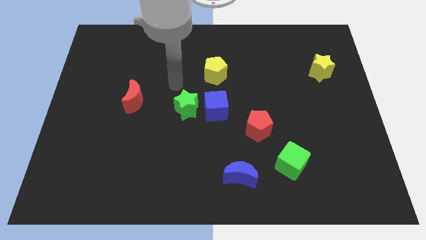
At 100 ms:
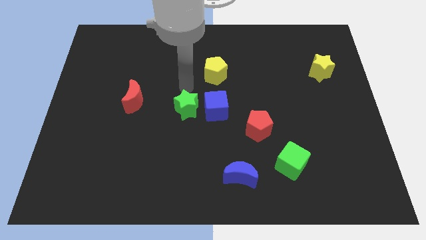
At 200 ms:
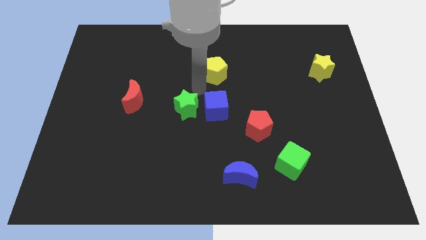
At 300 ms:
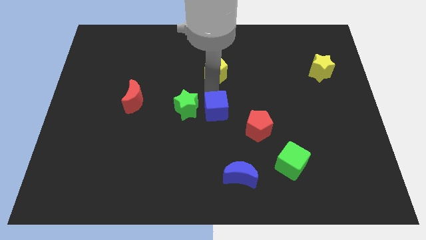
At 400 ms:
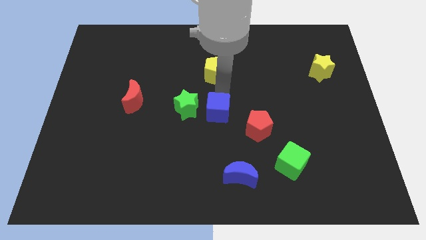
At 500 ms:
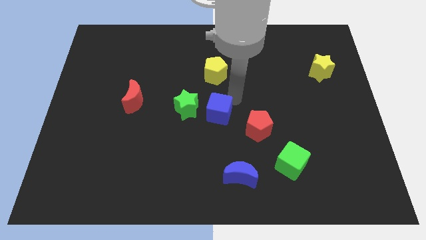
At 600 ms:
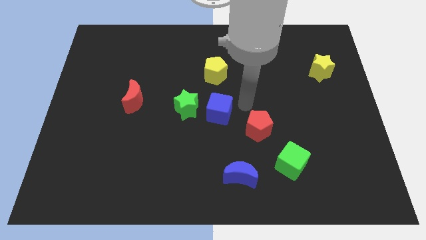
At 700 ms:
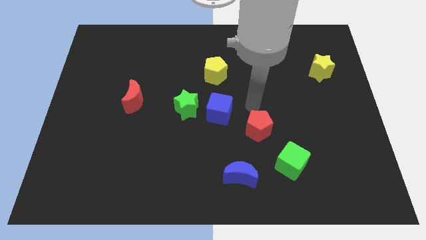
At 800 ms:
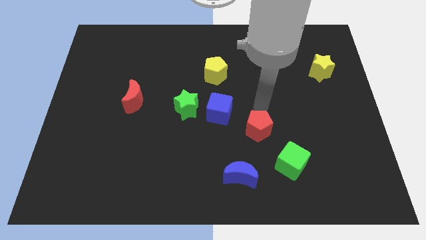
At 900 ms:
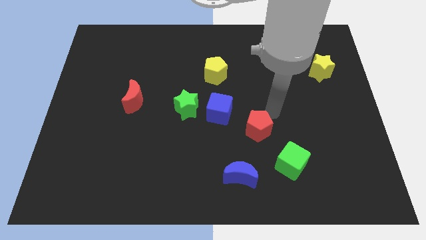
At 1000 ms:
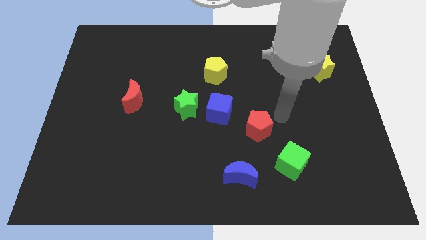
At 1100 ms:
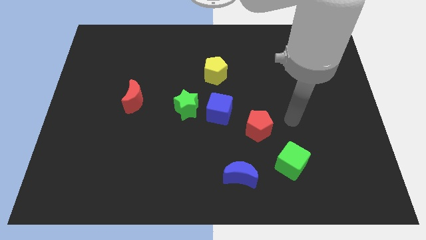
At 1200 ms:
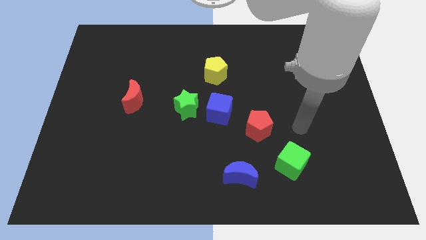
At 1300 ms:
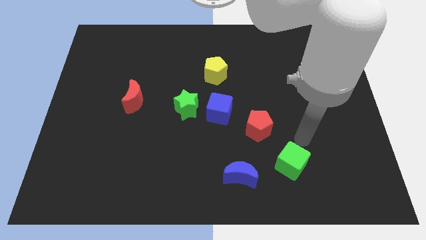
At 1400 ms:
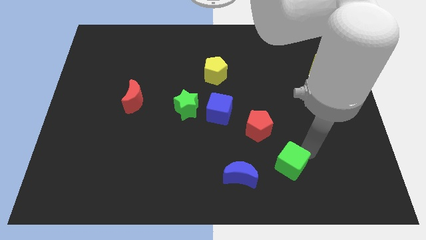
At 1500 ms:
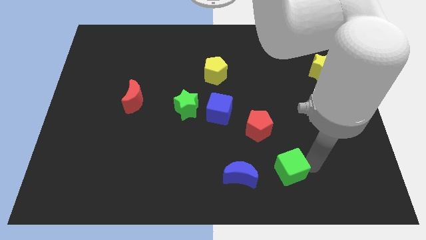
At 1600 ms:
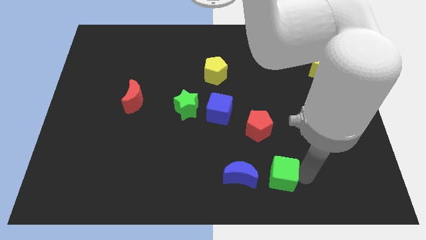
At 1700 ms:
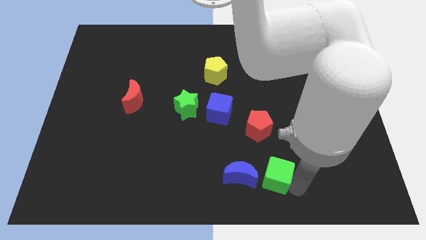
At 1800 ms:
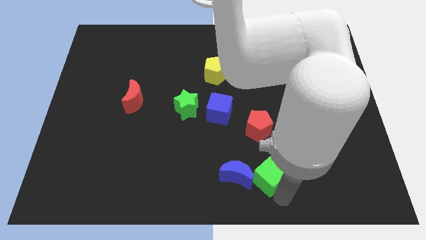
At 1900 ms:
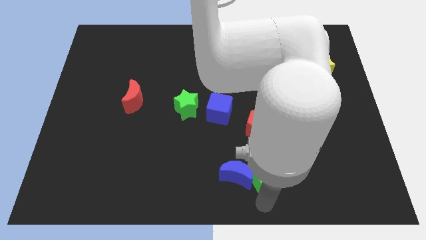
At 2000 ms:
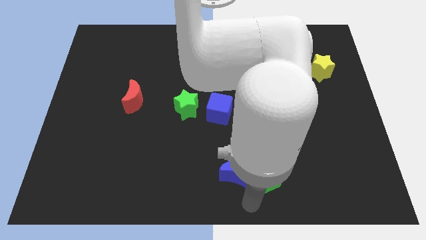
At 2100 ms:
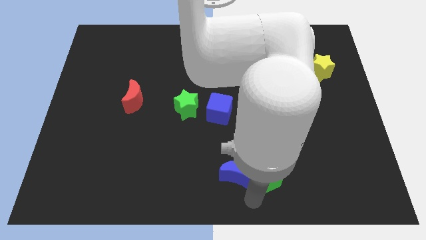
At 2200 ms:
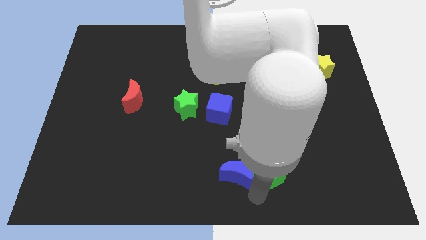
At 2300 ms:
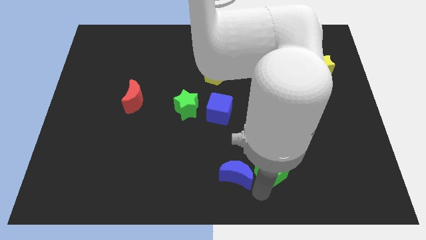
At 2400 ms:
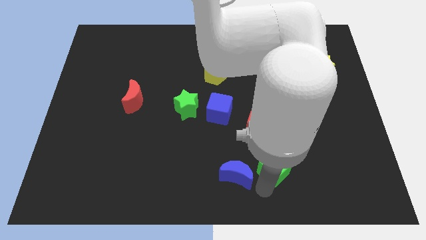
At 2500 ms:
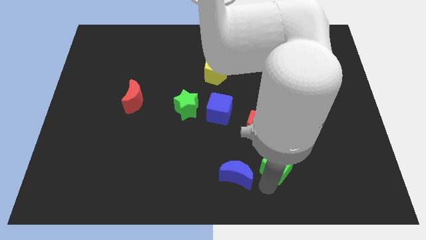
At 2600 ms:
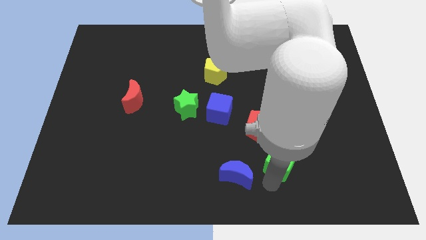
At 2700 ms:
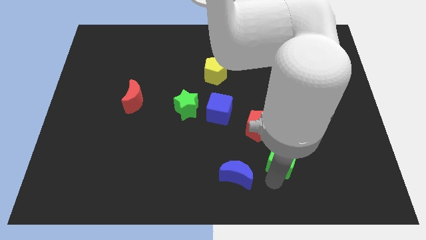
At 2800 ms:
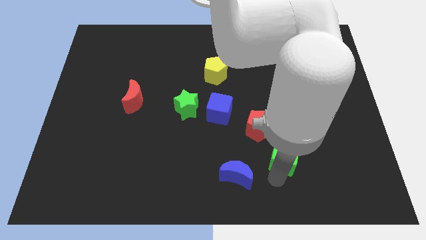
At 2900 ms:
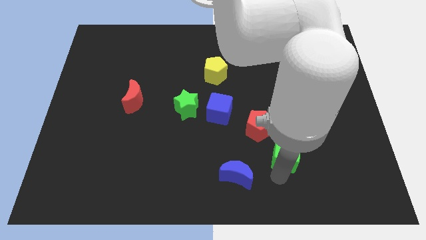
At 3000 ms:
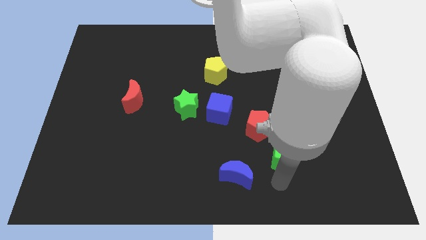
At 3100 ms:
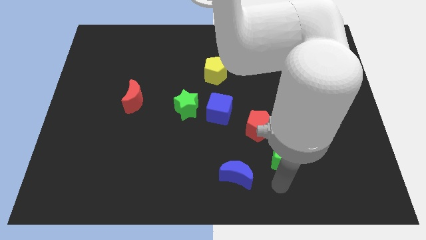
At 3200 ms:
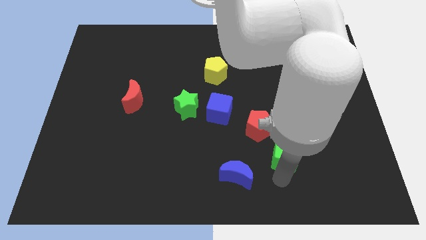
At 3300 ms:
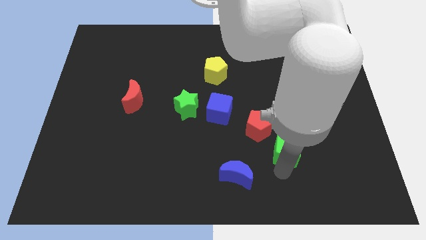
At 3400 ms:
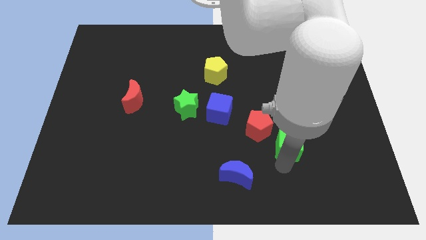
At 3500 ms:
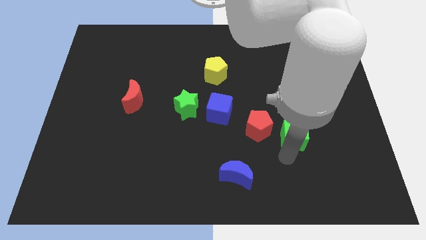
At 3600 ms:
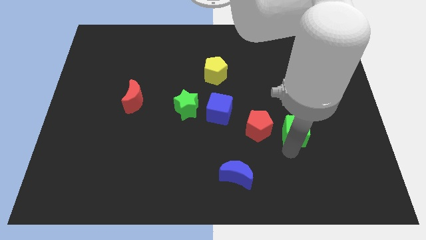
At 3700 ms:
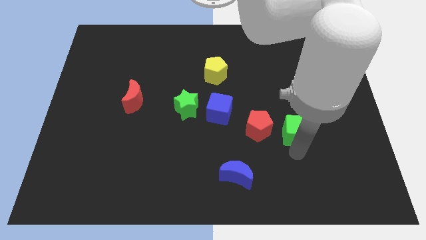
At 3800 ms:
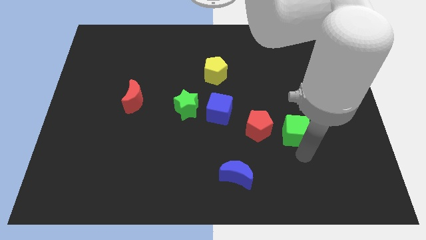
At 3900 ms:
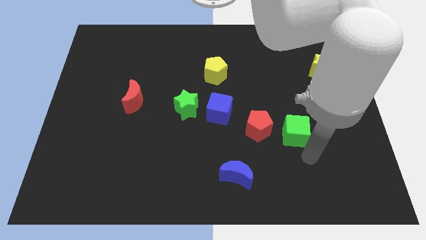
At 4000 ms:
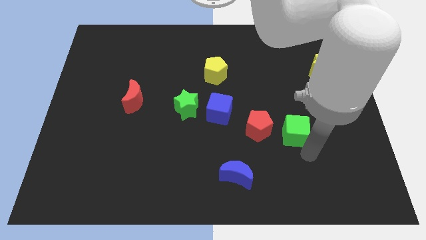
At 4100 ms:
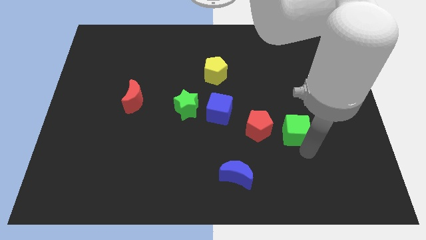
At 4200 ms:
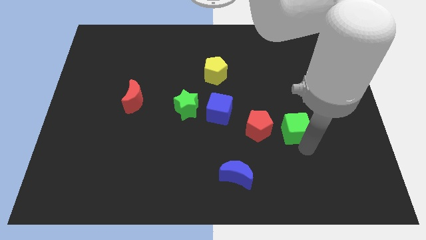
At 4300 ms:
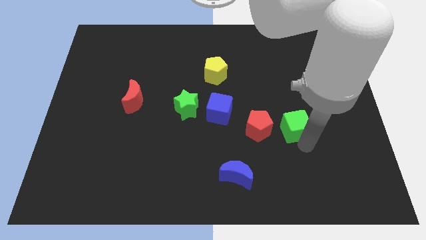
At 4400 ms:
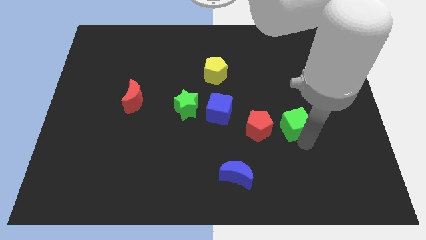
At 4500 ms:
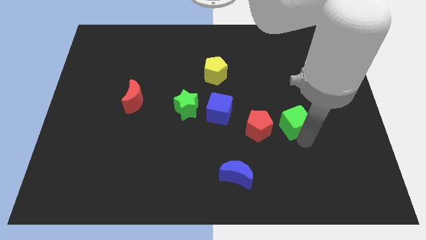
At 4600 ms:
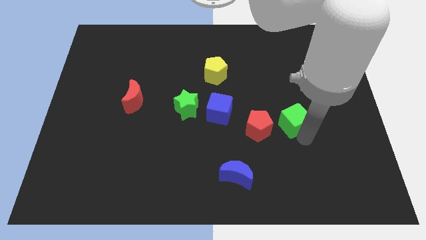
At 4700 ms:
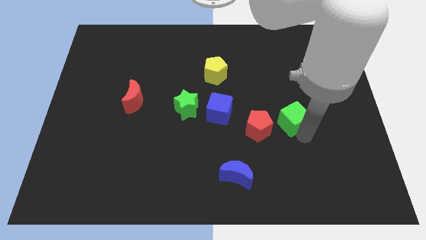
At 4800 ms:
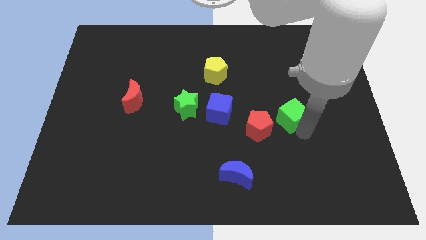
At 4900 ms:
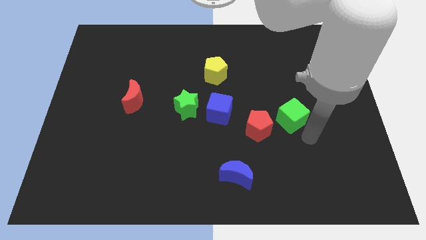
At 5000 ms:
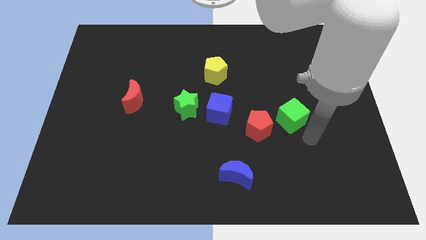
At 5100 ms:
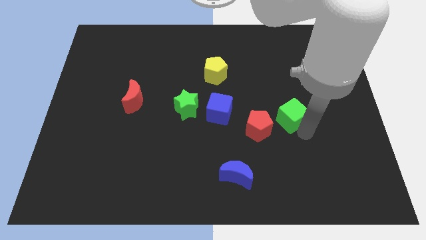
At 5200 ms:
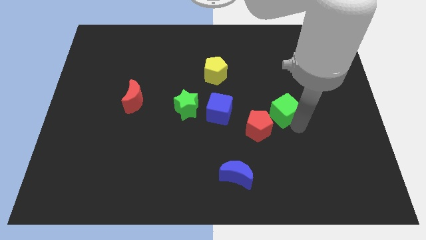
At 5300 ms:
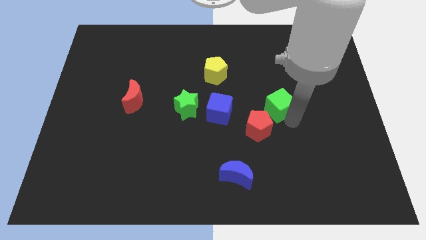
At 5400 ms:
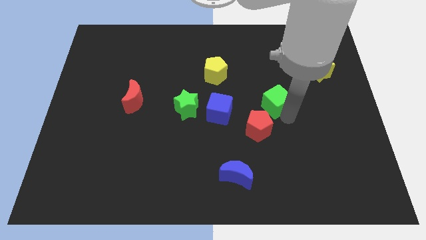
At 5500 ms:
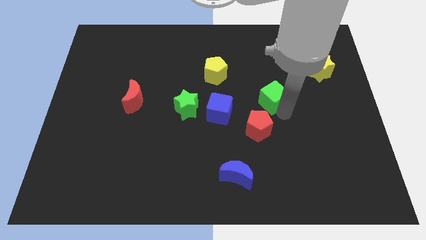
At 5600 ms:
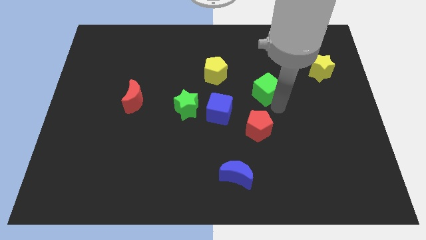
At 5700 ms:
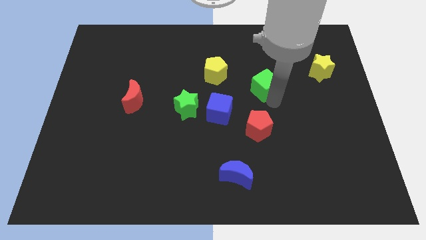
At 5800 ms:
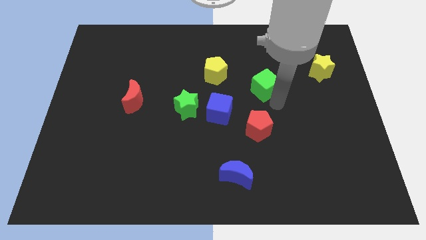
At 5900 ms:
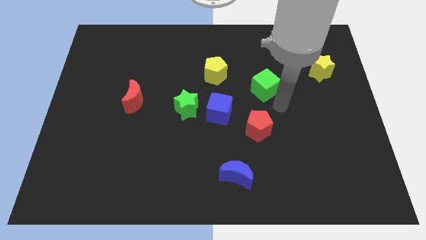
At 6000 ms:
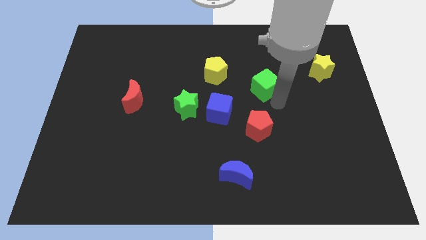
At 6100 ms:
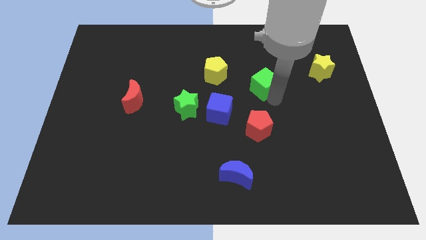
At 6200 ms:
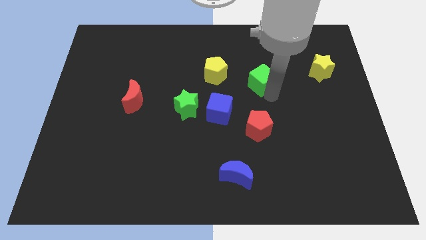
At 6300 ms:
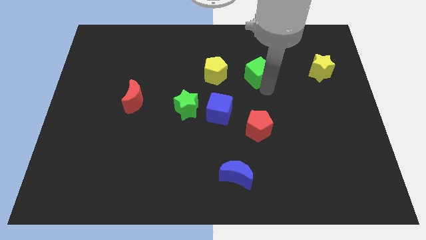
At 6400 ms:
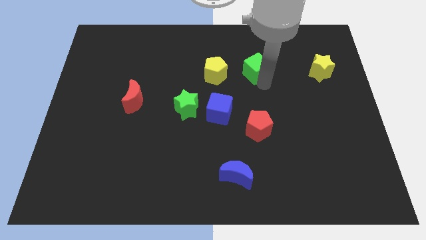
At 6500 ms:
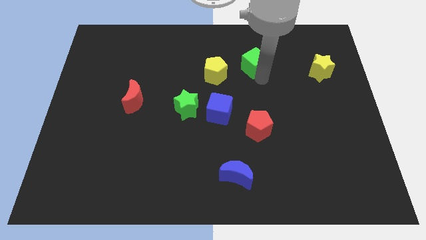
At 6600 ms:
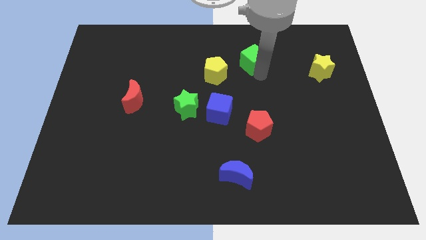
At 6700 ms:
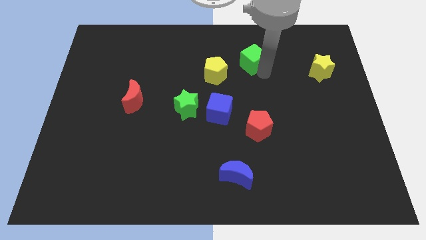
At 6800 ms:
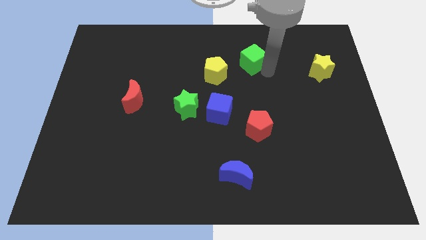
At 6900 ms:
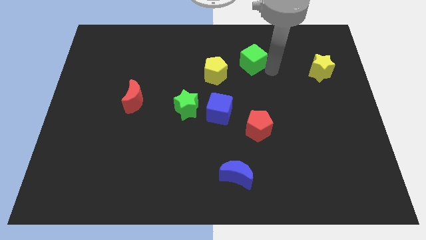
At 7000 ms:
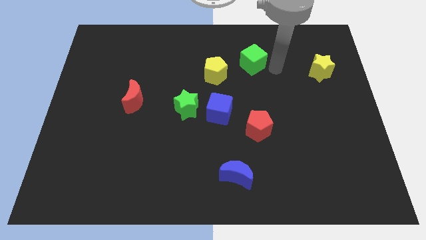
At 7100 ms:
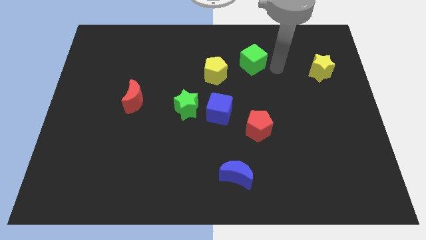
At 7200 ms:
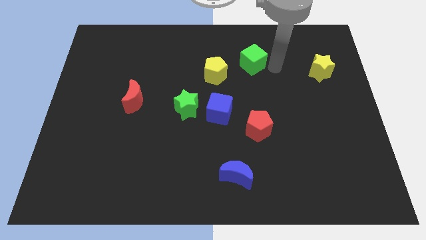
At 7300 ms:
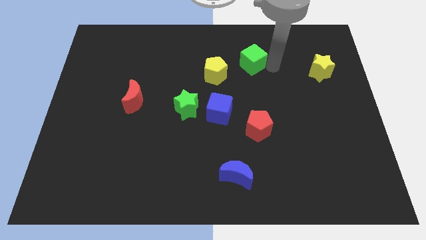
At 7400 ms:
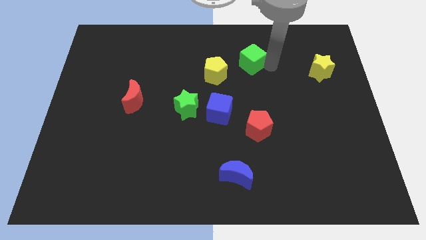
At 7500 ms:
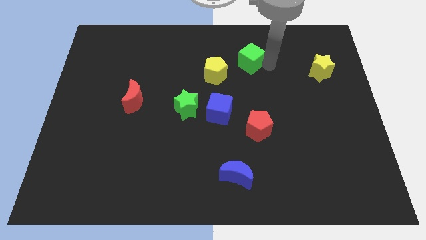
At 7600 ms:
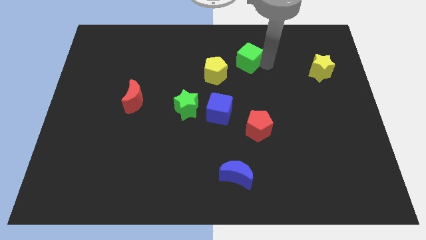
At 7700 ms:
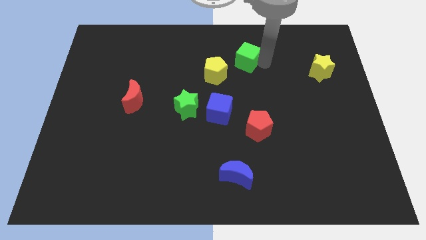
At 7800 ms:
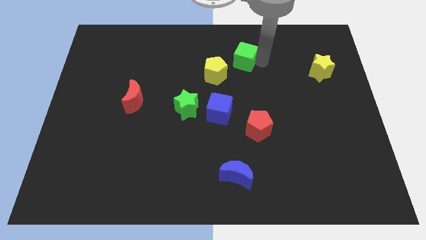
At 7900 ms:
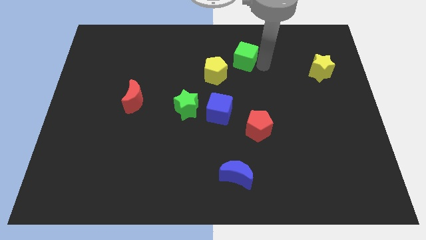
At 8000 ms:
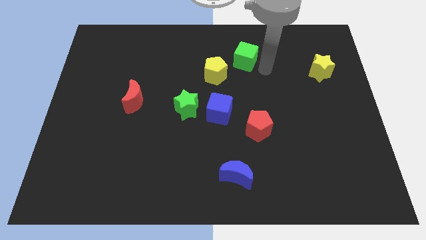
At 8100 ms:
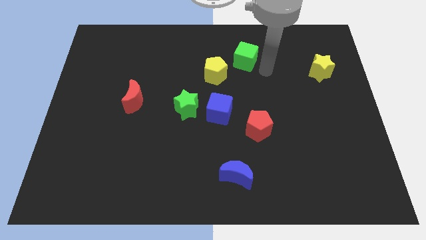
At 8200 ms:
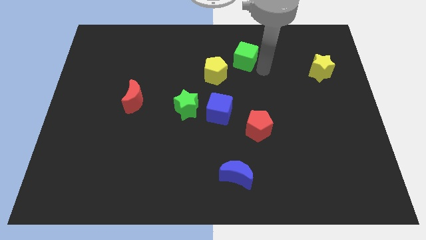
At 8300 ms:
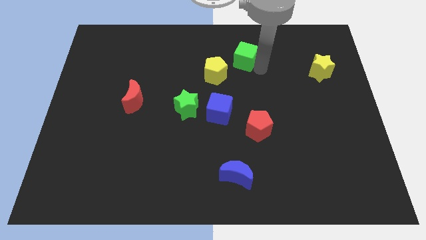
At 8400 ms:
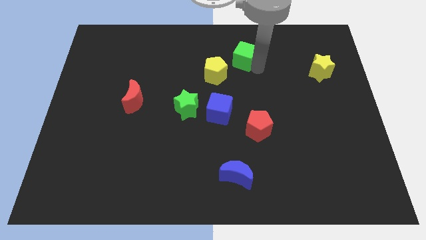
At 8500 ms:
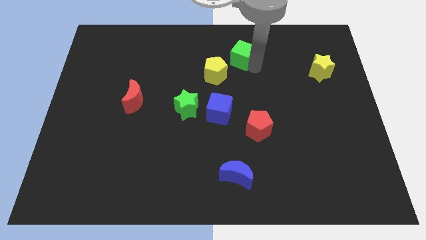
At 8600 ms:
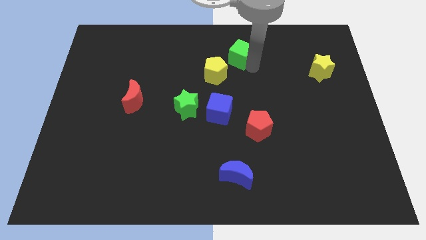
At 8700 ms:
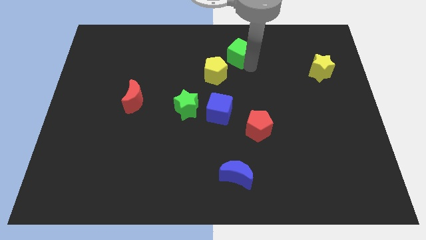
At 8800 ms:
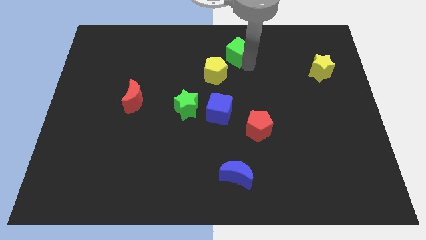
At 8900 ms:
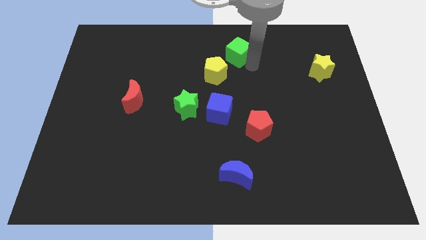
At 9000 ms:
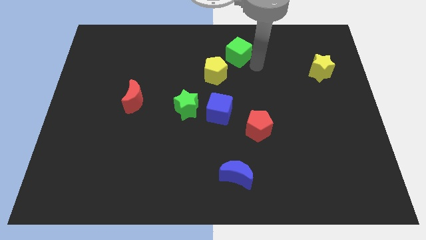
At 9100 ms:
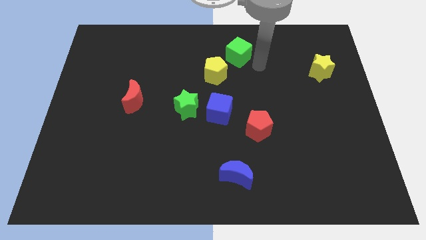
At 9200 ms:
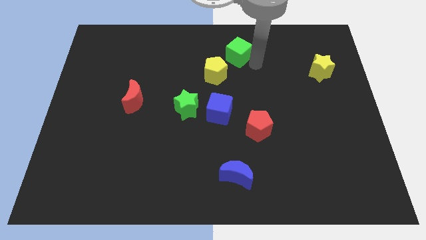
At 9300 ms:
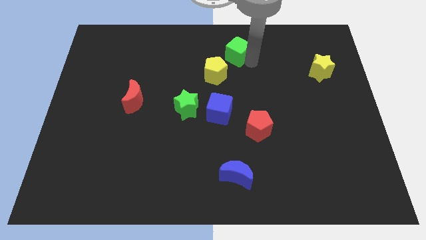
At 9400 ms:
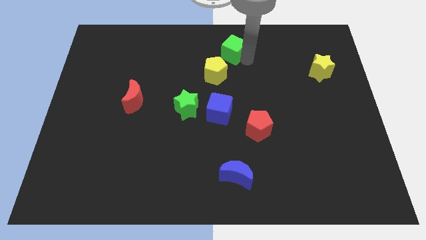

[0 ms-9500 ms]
slide the green cube to the top
